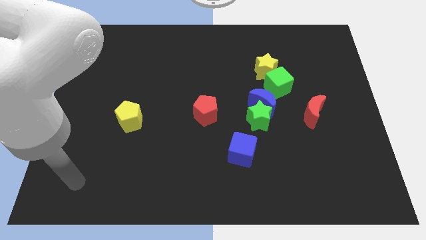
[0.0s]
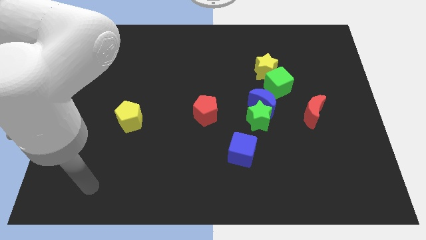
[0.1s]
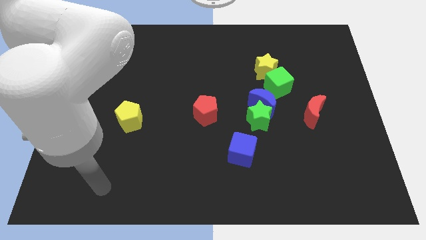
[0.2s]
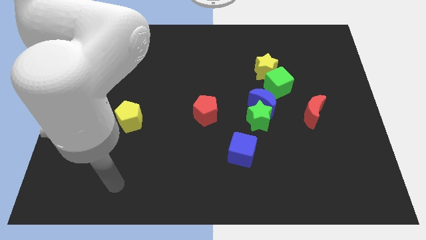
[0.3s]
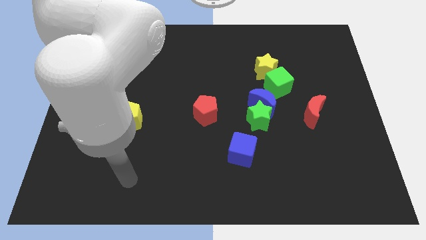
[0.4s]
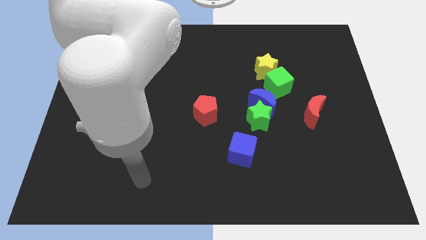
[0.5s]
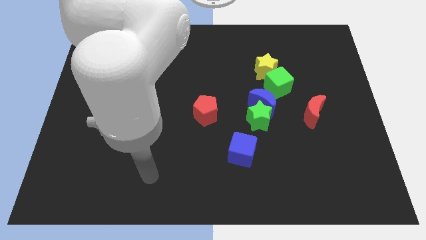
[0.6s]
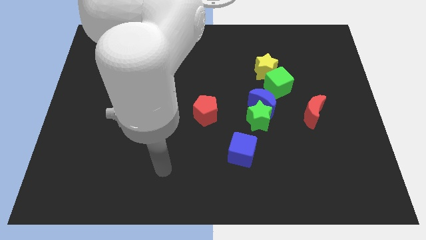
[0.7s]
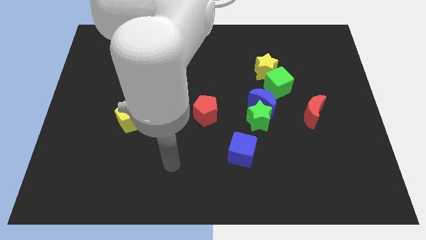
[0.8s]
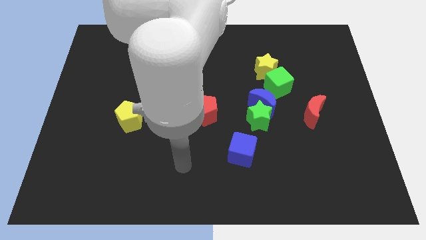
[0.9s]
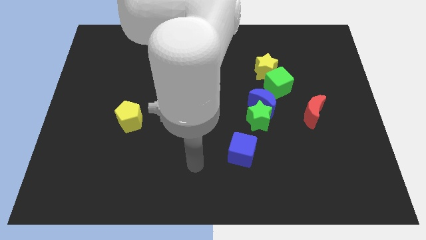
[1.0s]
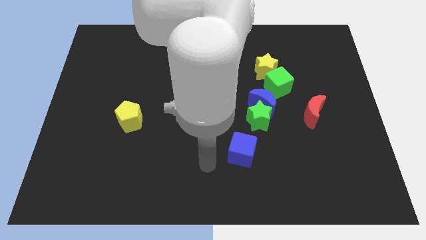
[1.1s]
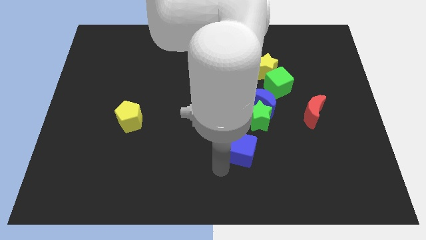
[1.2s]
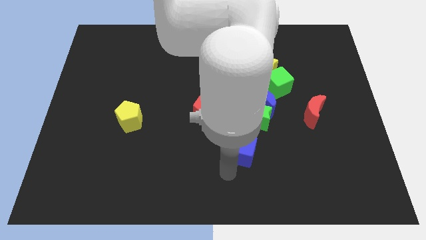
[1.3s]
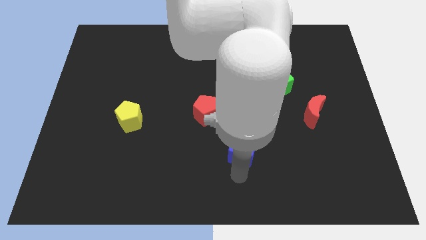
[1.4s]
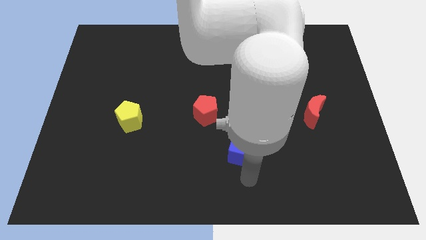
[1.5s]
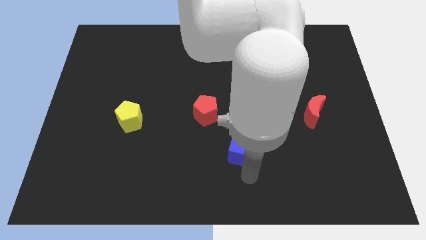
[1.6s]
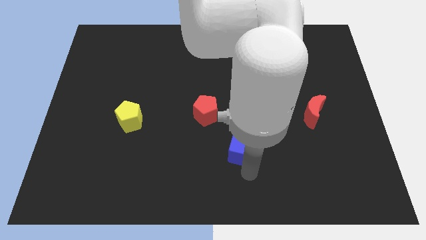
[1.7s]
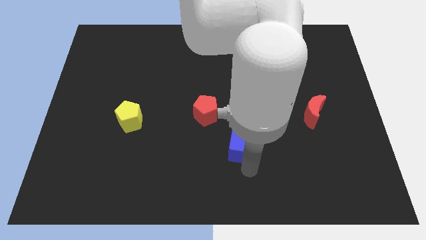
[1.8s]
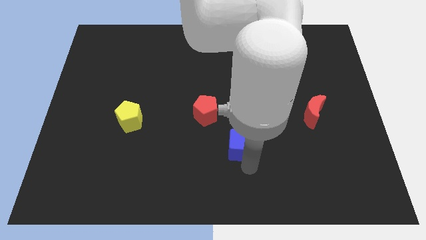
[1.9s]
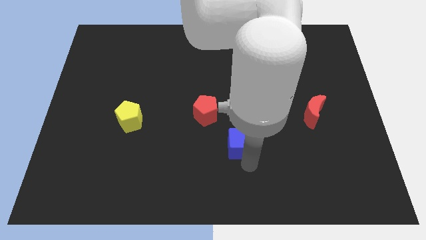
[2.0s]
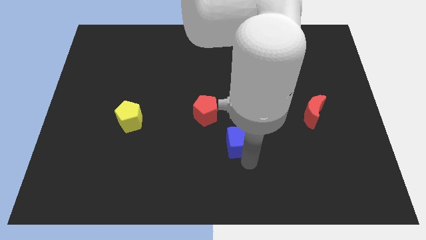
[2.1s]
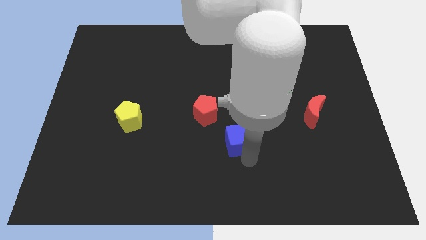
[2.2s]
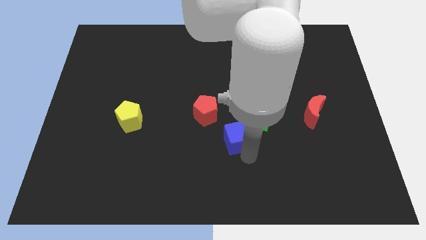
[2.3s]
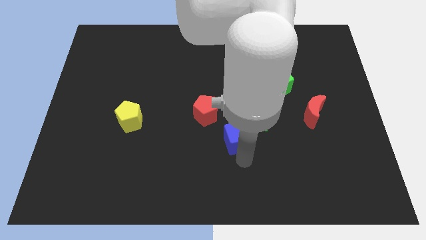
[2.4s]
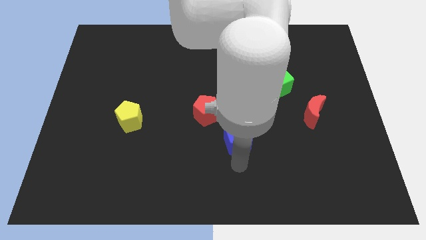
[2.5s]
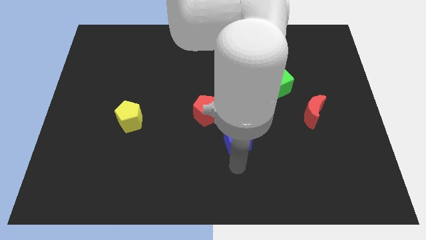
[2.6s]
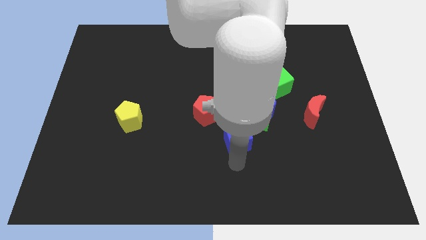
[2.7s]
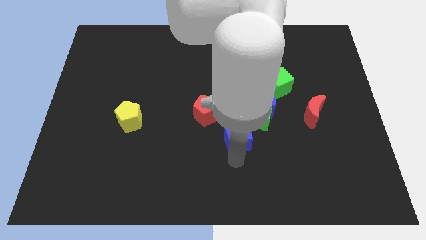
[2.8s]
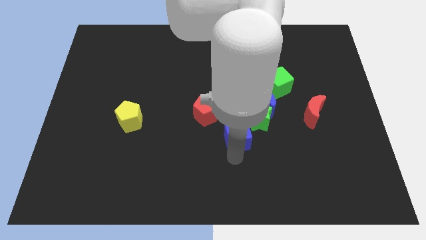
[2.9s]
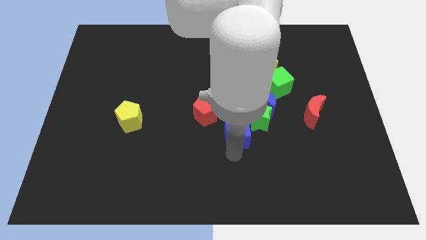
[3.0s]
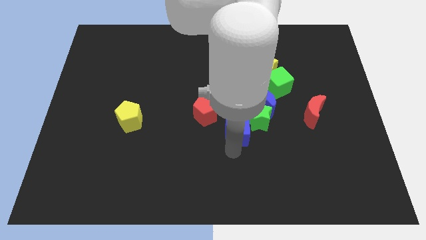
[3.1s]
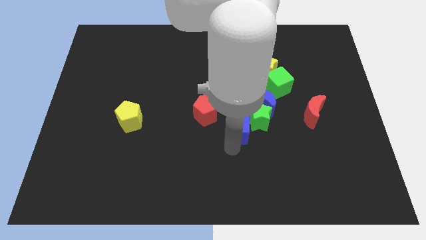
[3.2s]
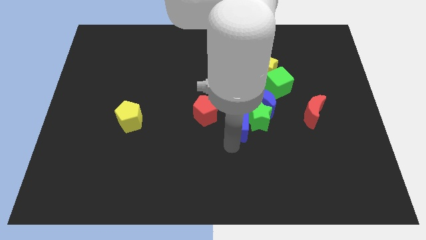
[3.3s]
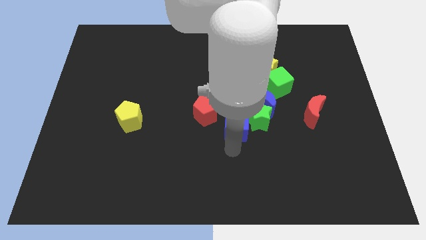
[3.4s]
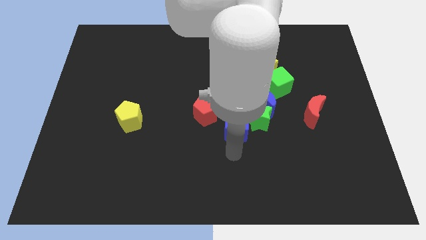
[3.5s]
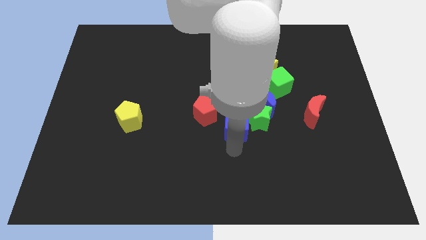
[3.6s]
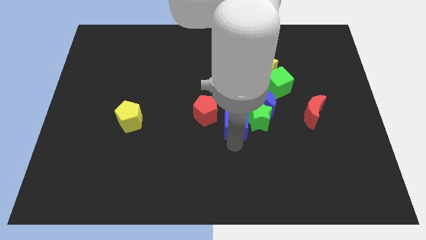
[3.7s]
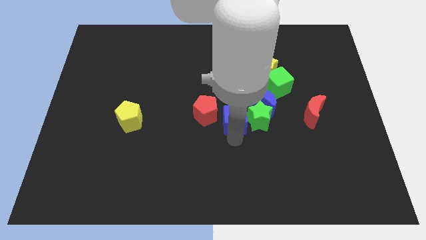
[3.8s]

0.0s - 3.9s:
push the blue cube up slightly

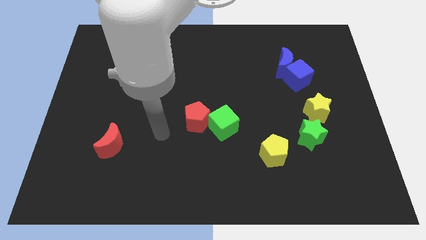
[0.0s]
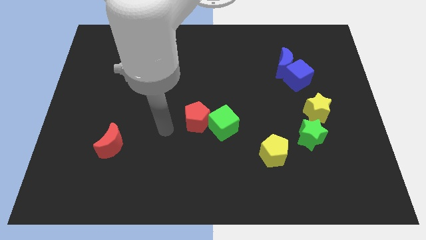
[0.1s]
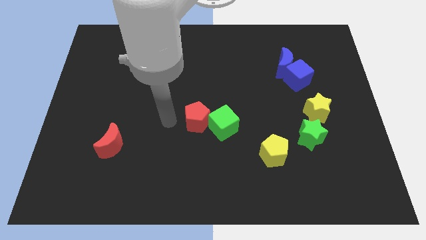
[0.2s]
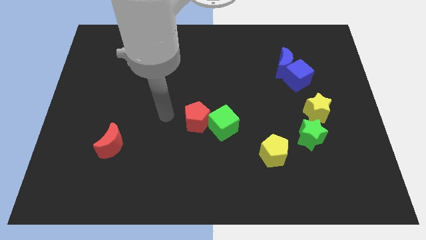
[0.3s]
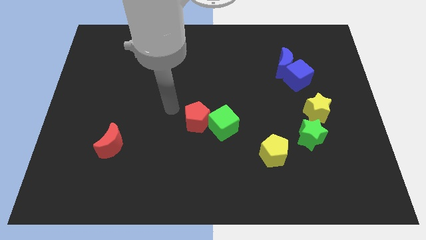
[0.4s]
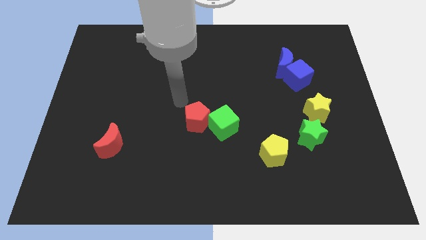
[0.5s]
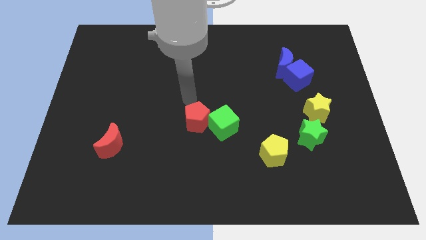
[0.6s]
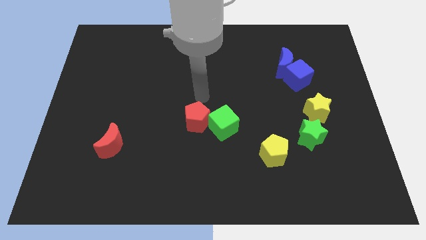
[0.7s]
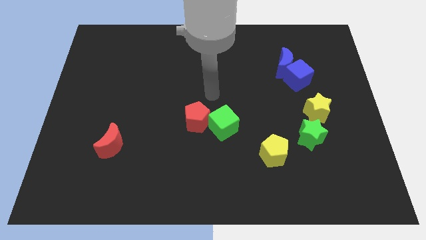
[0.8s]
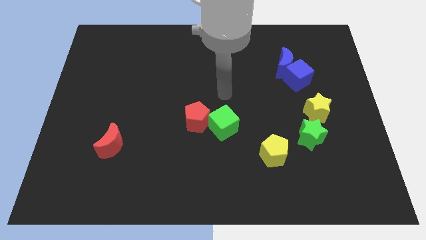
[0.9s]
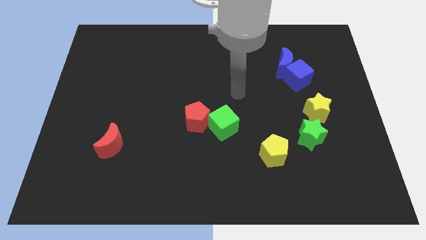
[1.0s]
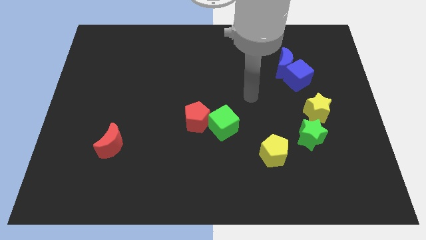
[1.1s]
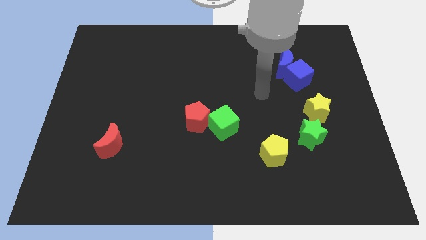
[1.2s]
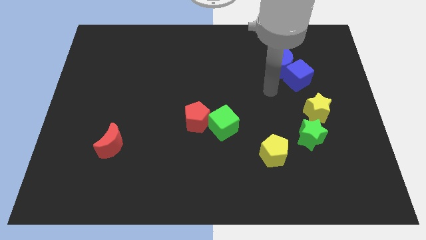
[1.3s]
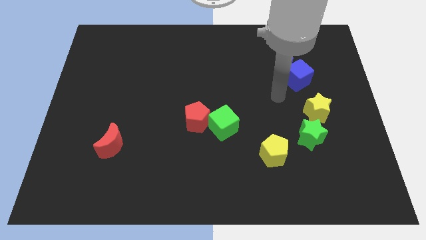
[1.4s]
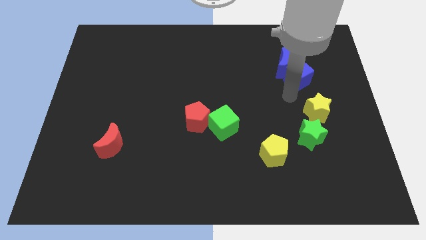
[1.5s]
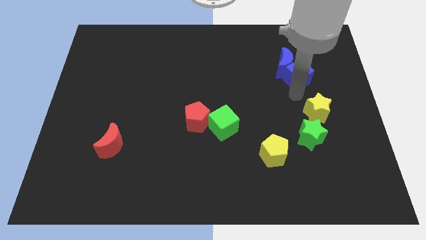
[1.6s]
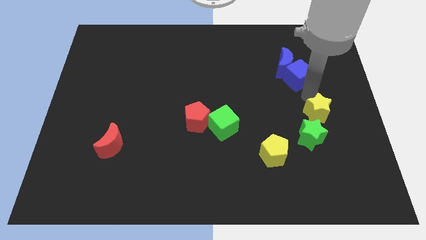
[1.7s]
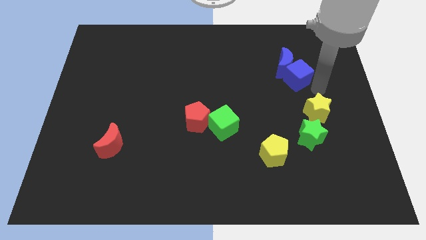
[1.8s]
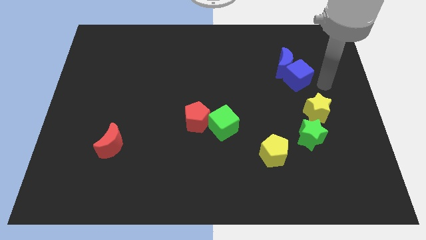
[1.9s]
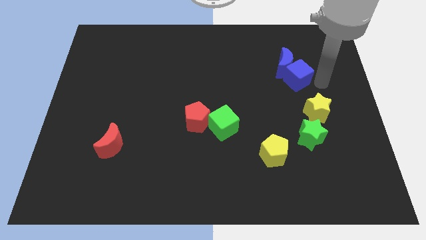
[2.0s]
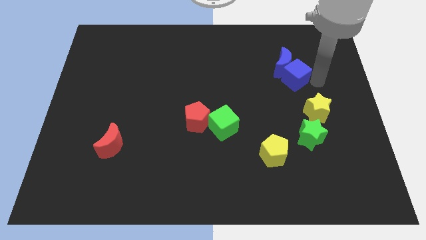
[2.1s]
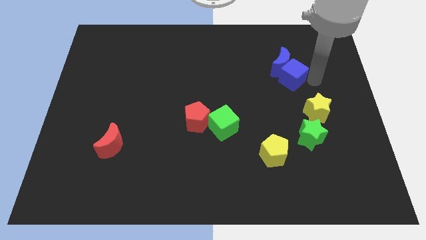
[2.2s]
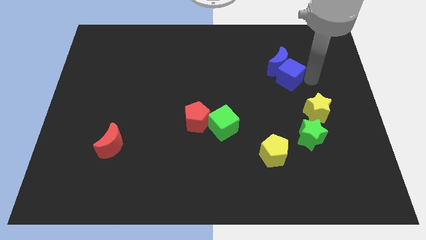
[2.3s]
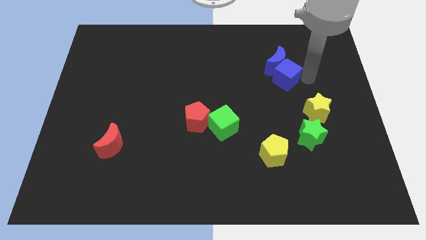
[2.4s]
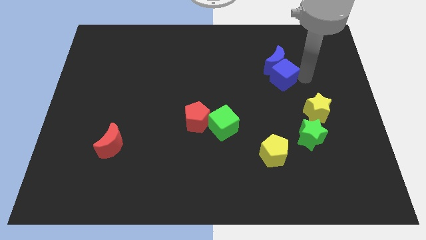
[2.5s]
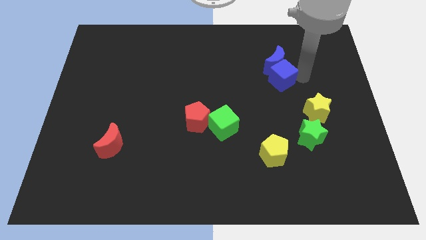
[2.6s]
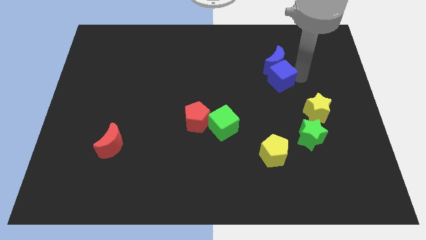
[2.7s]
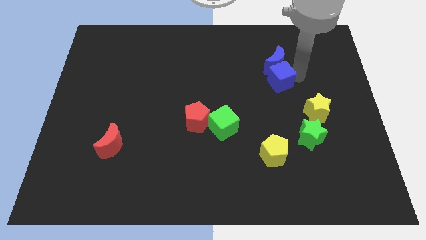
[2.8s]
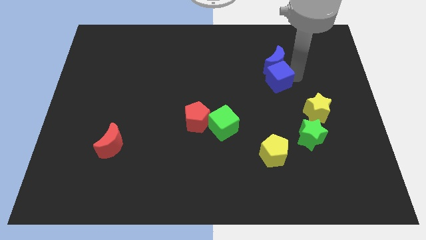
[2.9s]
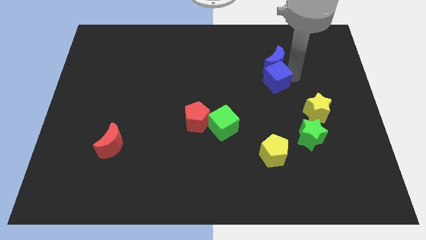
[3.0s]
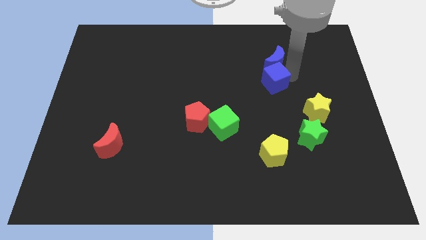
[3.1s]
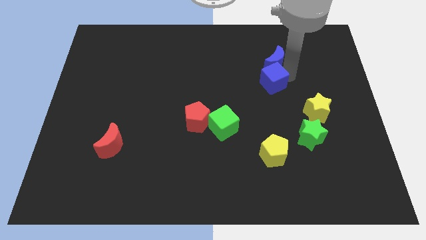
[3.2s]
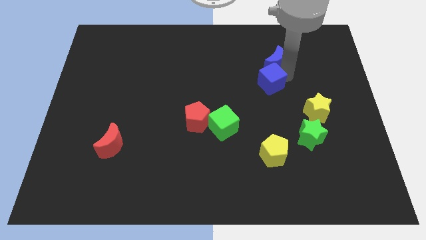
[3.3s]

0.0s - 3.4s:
slide the blue cube left a little bit

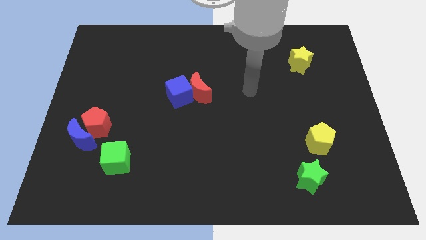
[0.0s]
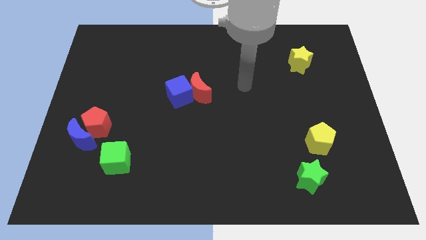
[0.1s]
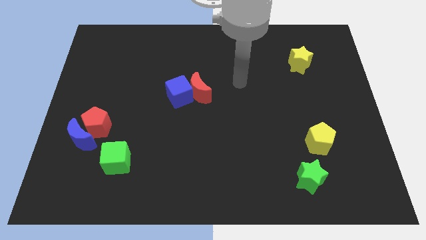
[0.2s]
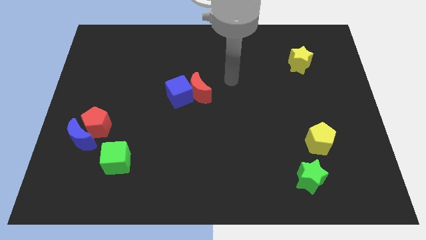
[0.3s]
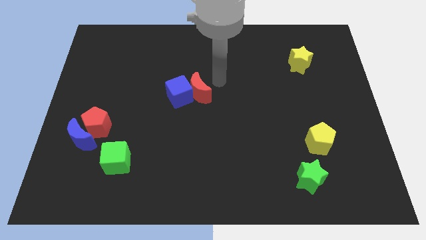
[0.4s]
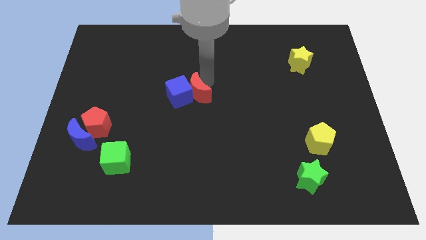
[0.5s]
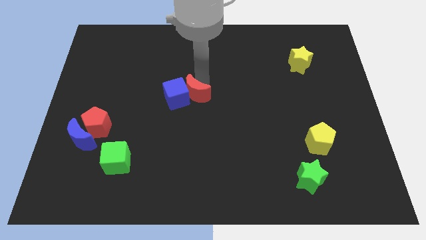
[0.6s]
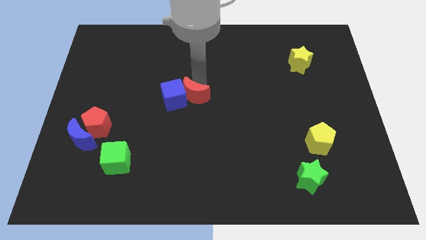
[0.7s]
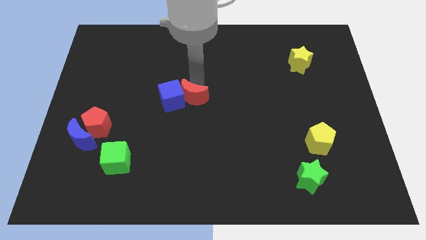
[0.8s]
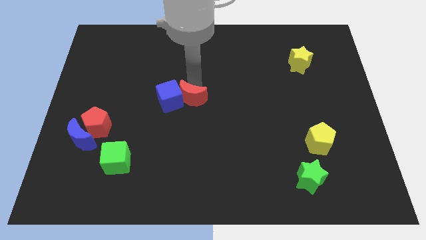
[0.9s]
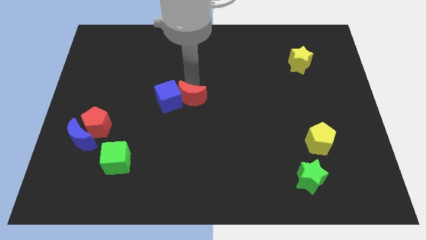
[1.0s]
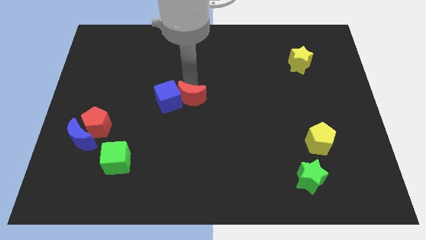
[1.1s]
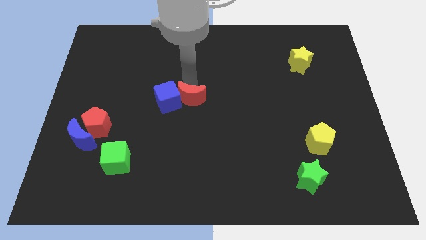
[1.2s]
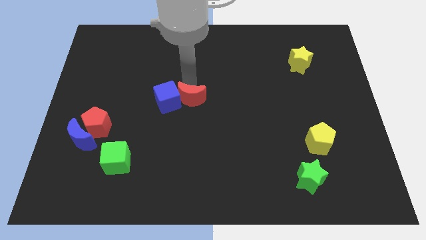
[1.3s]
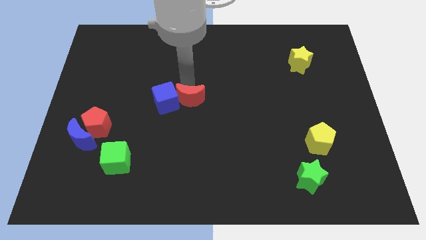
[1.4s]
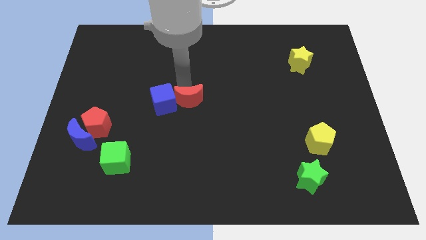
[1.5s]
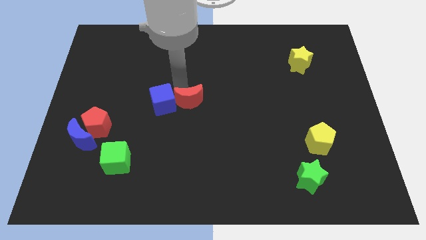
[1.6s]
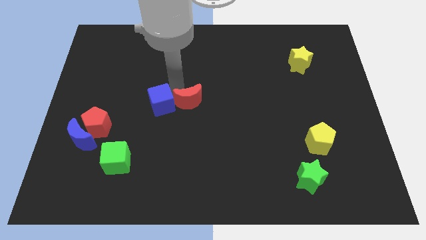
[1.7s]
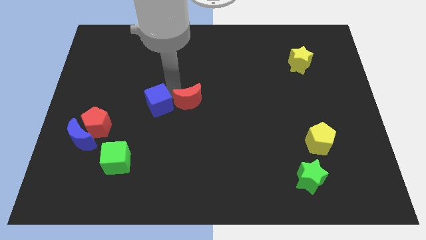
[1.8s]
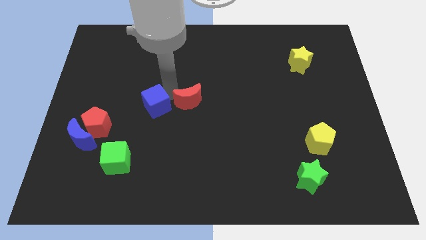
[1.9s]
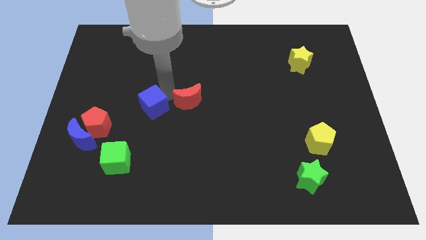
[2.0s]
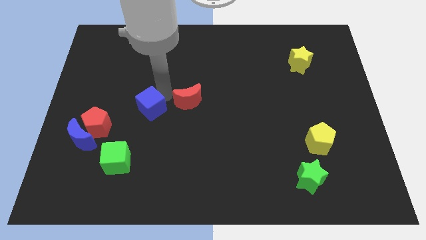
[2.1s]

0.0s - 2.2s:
move the blue cube downwards and then left a bit
